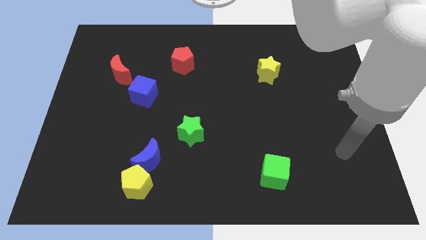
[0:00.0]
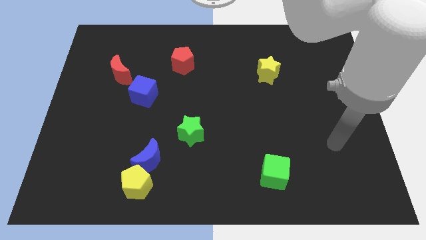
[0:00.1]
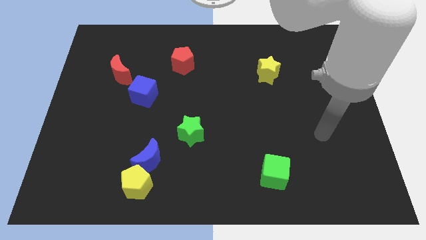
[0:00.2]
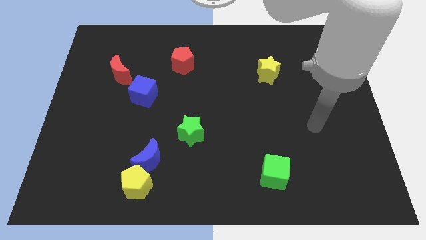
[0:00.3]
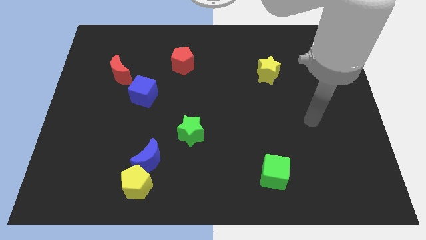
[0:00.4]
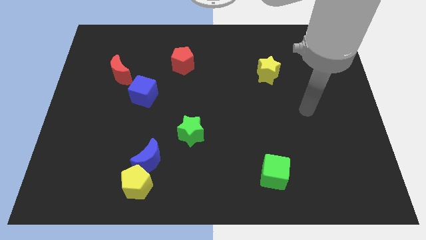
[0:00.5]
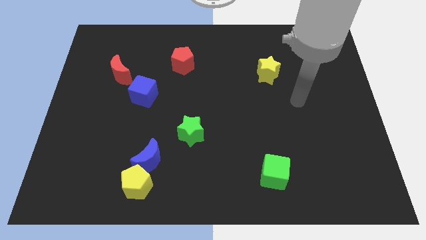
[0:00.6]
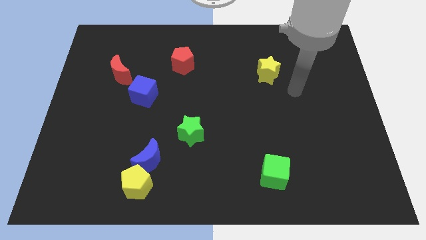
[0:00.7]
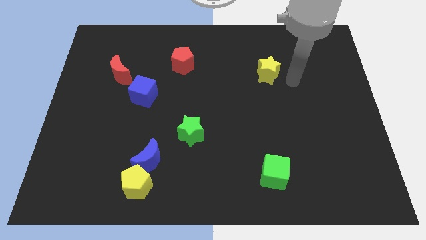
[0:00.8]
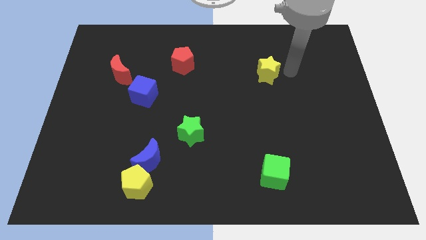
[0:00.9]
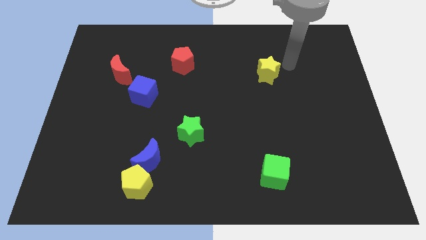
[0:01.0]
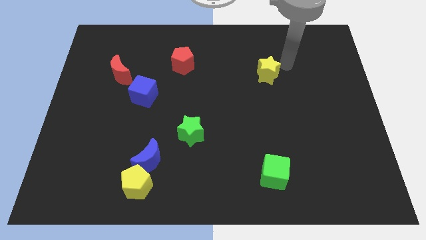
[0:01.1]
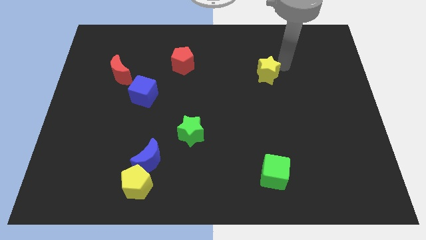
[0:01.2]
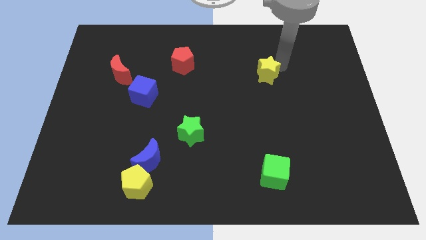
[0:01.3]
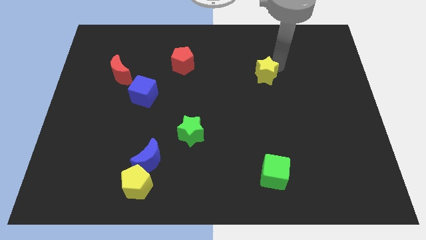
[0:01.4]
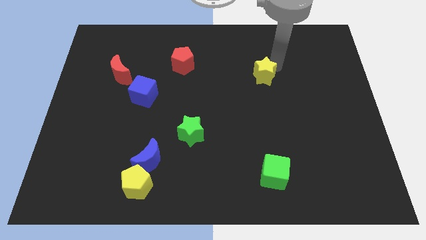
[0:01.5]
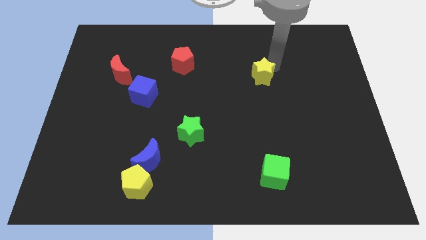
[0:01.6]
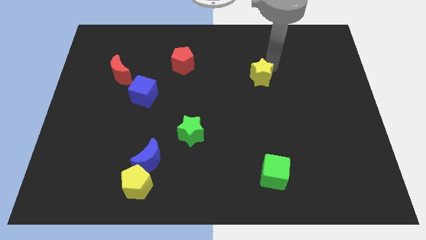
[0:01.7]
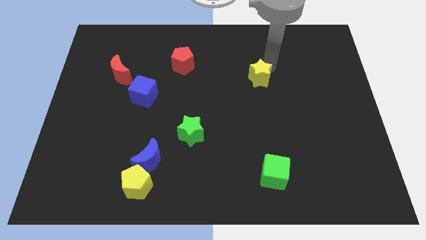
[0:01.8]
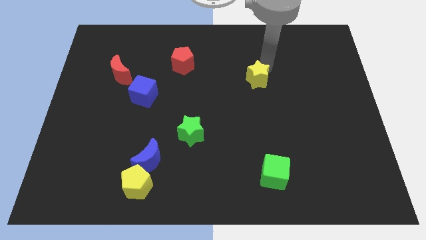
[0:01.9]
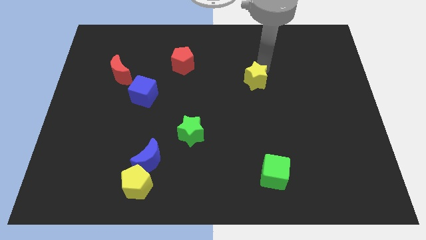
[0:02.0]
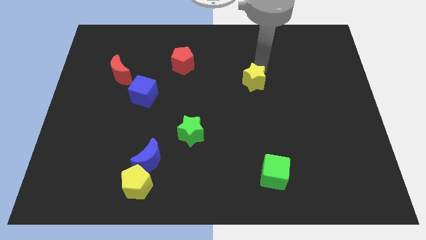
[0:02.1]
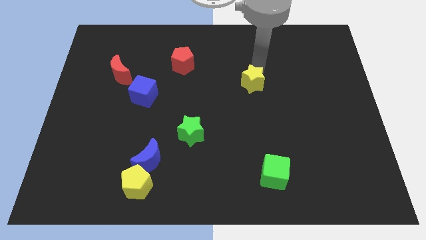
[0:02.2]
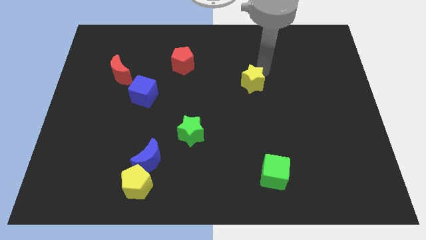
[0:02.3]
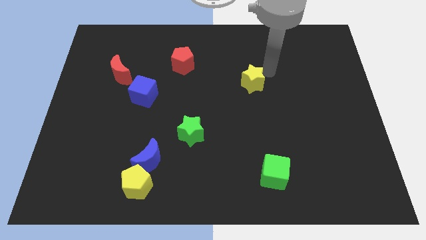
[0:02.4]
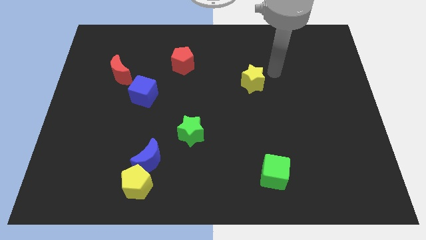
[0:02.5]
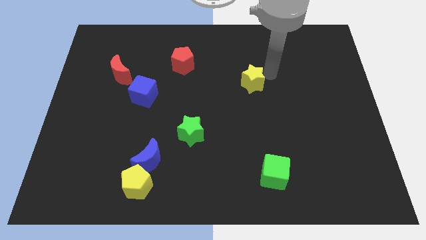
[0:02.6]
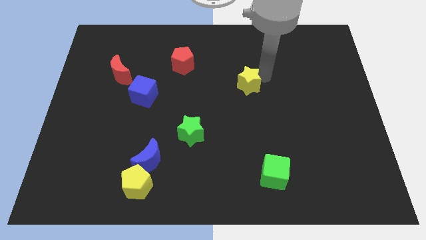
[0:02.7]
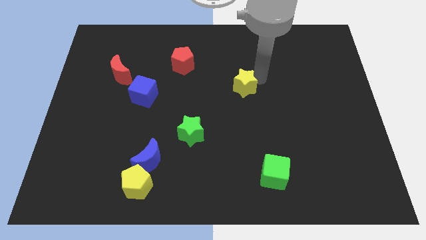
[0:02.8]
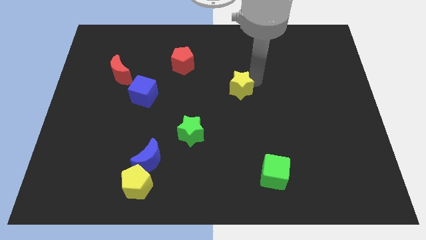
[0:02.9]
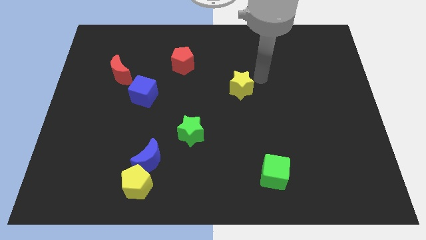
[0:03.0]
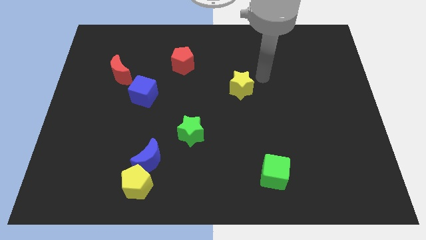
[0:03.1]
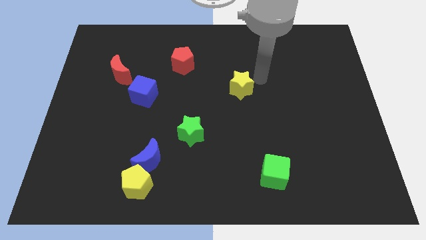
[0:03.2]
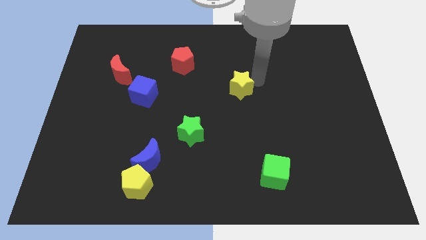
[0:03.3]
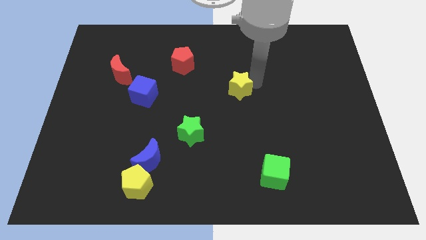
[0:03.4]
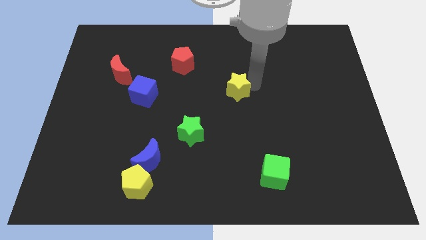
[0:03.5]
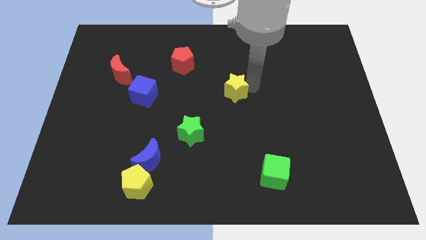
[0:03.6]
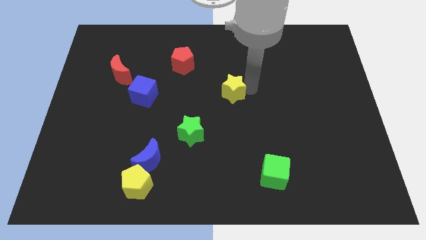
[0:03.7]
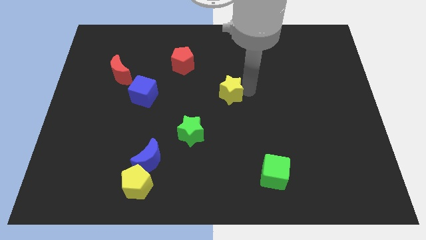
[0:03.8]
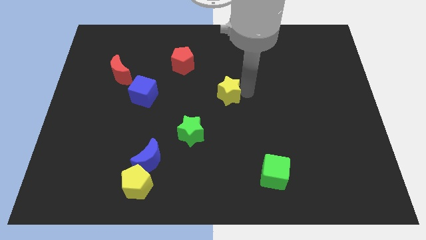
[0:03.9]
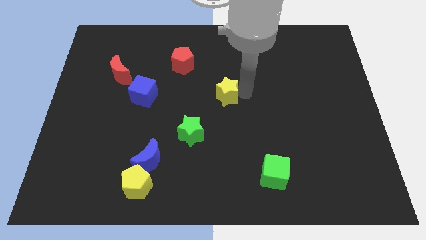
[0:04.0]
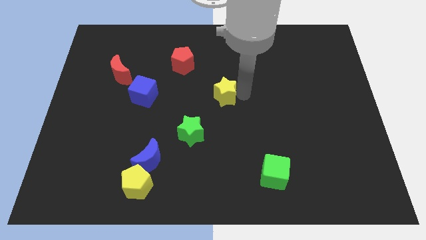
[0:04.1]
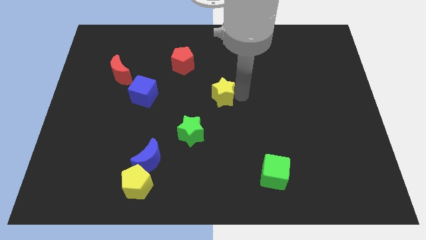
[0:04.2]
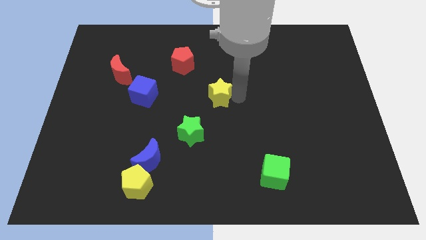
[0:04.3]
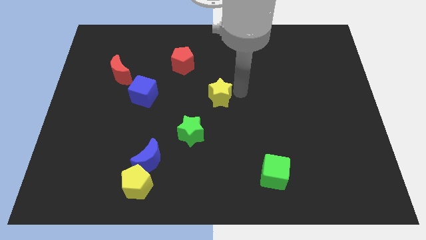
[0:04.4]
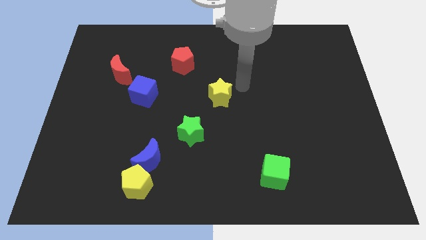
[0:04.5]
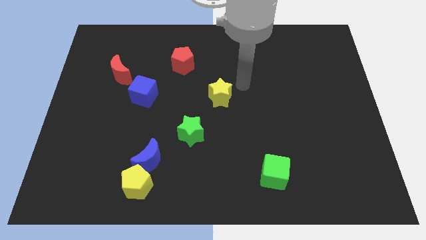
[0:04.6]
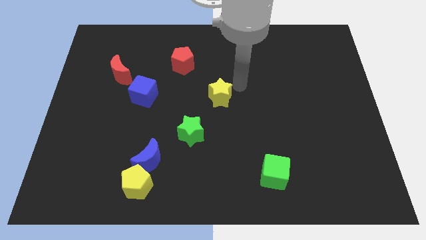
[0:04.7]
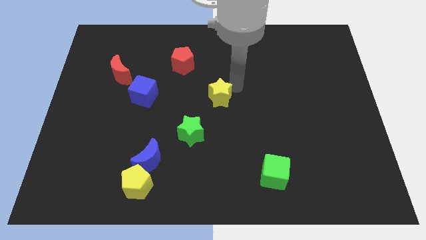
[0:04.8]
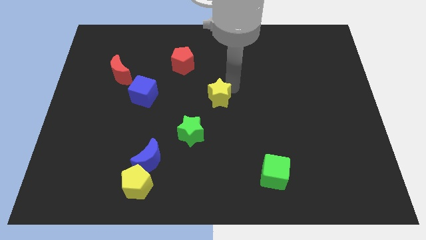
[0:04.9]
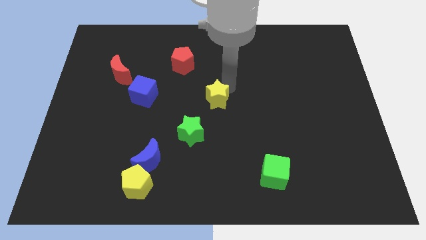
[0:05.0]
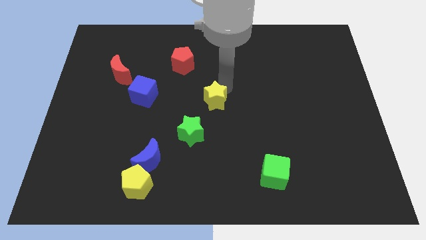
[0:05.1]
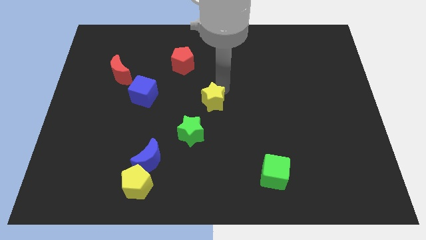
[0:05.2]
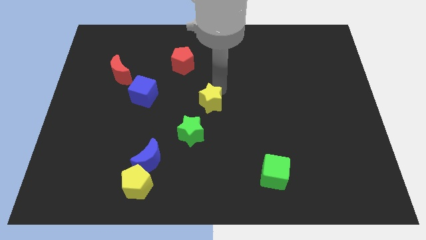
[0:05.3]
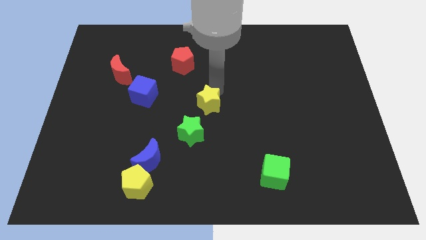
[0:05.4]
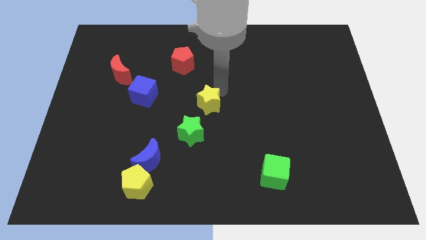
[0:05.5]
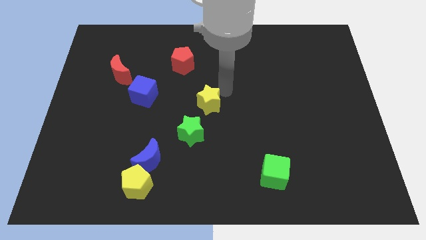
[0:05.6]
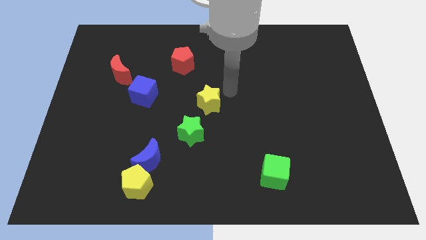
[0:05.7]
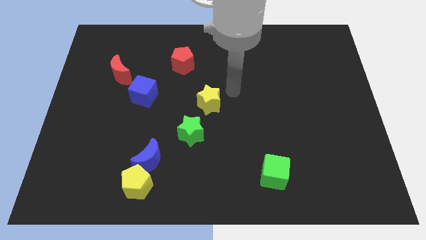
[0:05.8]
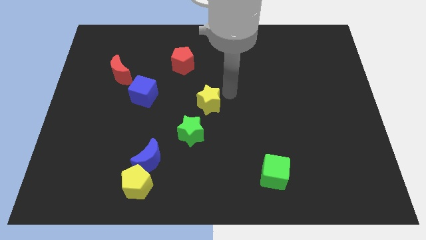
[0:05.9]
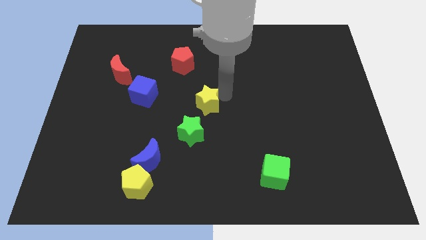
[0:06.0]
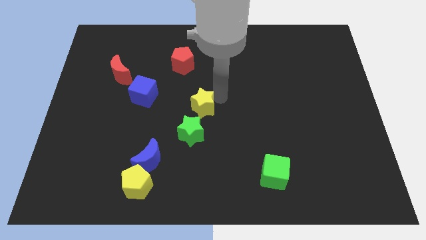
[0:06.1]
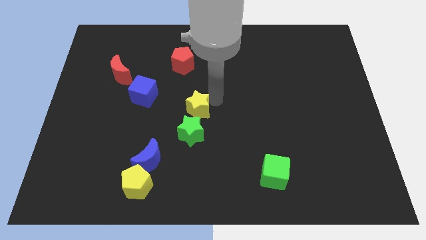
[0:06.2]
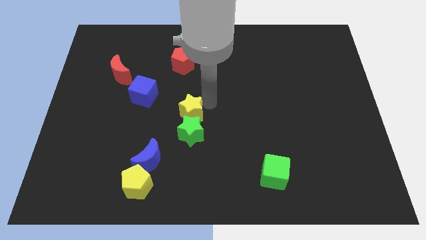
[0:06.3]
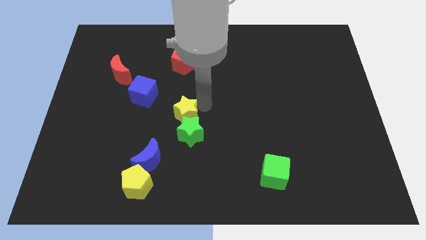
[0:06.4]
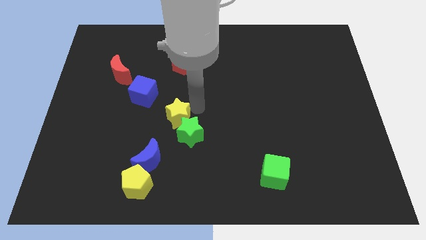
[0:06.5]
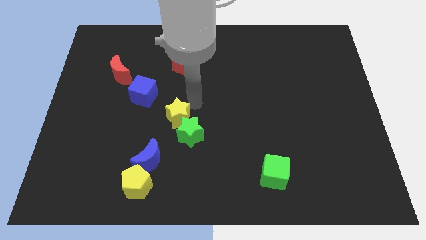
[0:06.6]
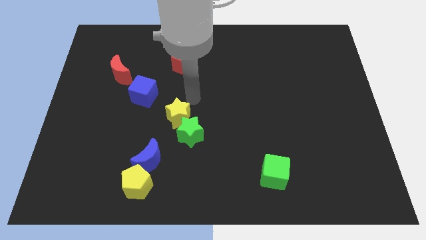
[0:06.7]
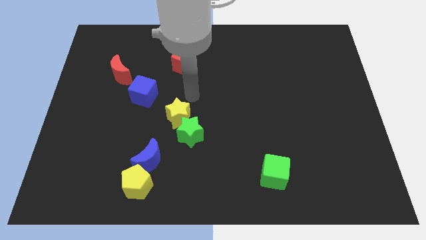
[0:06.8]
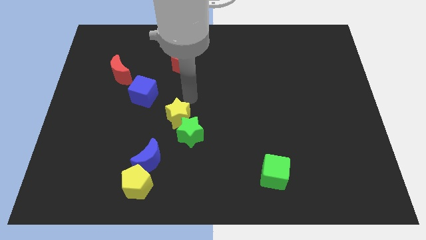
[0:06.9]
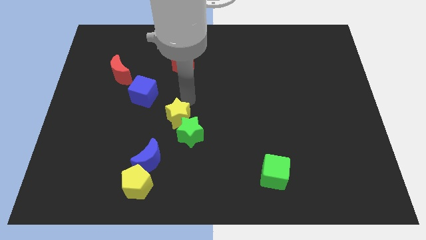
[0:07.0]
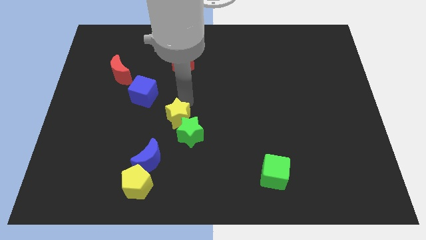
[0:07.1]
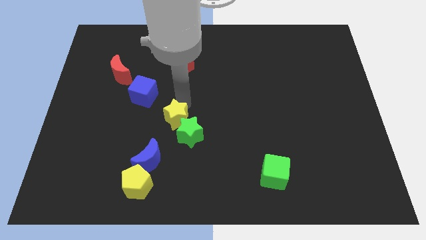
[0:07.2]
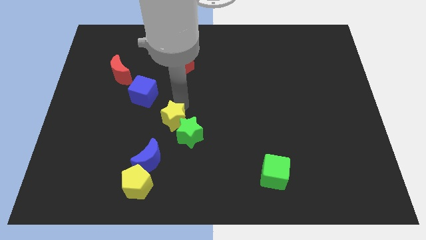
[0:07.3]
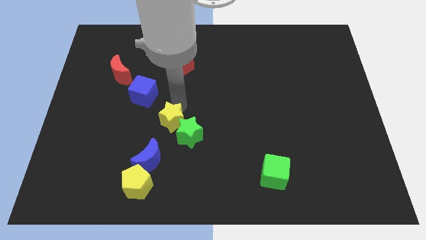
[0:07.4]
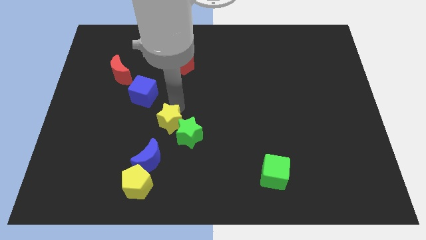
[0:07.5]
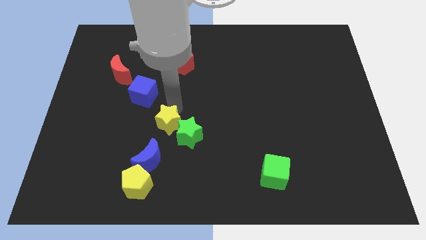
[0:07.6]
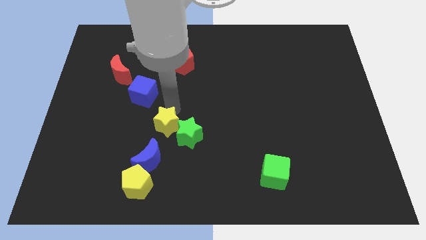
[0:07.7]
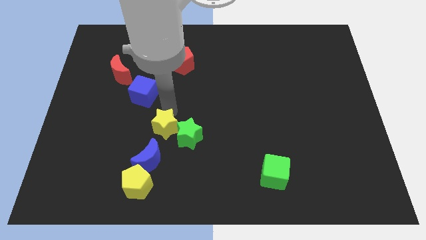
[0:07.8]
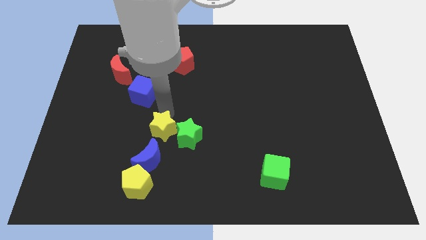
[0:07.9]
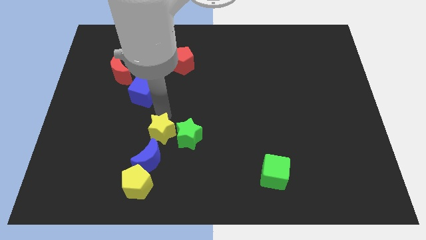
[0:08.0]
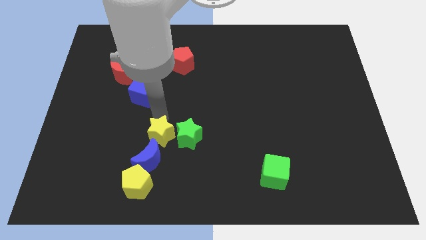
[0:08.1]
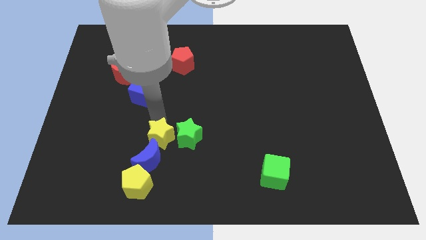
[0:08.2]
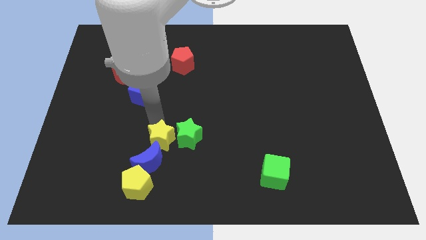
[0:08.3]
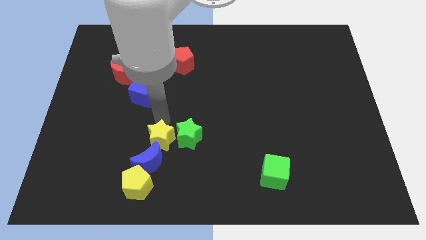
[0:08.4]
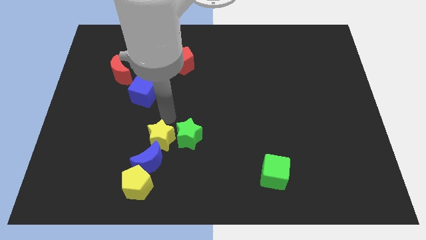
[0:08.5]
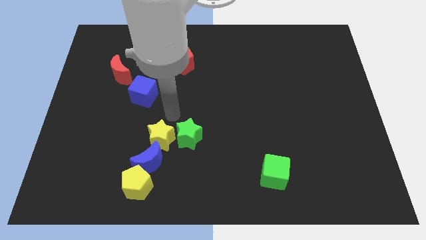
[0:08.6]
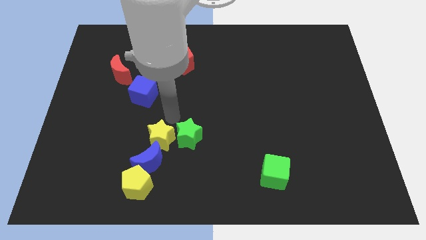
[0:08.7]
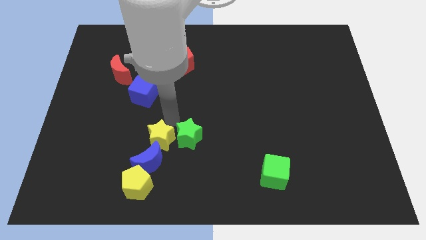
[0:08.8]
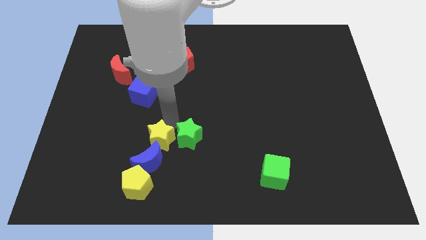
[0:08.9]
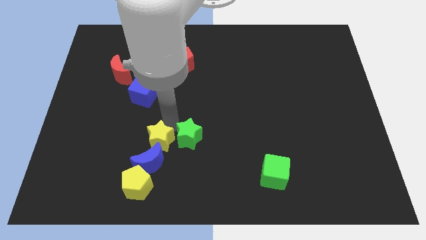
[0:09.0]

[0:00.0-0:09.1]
push the yellow star close to the blue moon
